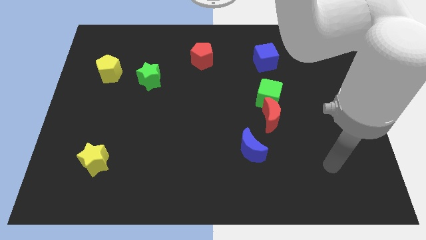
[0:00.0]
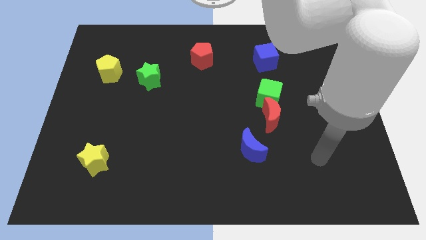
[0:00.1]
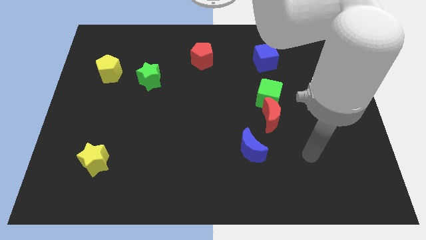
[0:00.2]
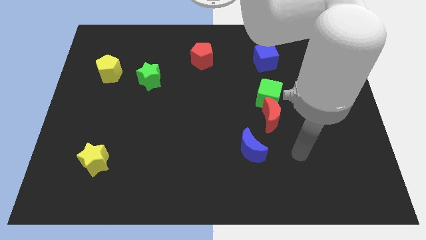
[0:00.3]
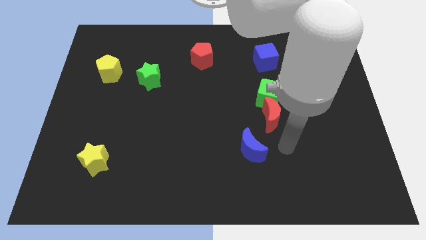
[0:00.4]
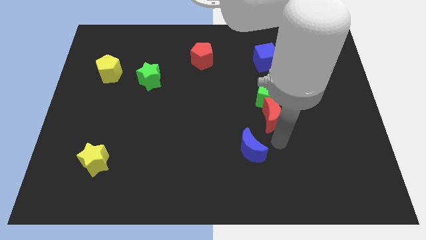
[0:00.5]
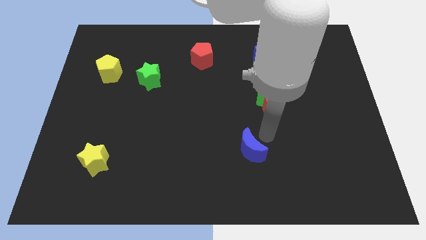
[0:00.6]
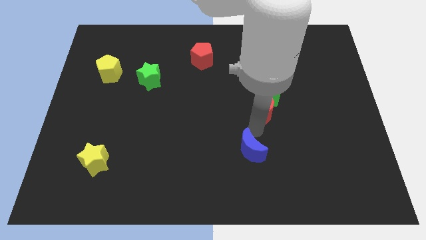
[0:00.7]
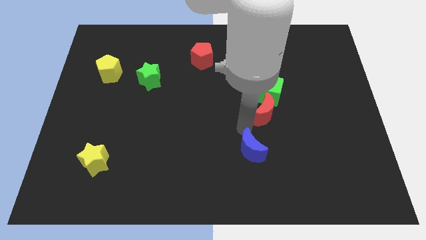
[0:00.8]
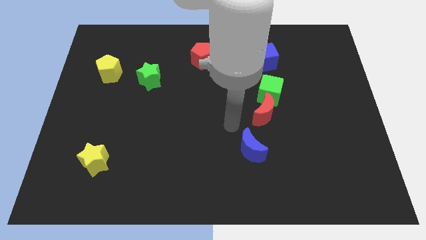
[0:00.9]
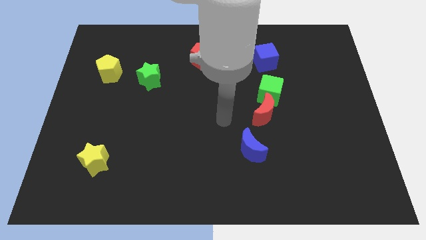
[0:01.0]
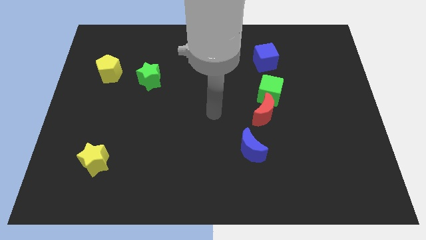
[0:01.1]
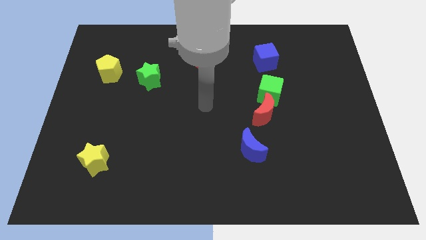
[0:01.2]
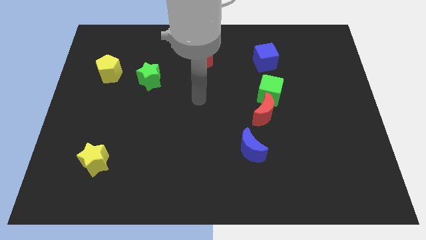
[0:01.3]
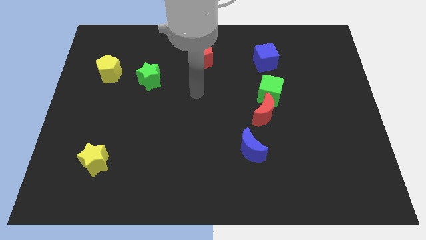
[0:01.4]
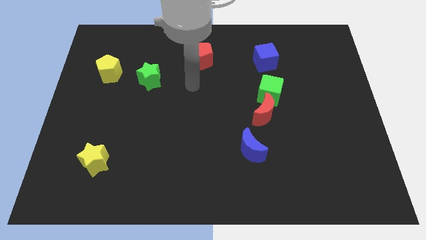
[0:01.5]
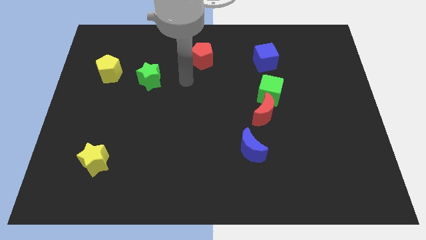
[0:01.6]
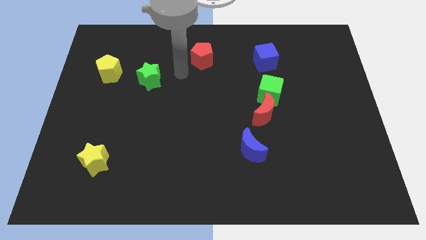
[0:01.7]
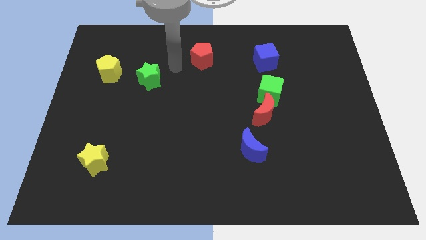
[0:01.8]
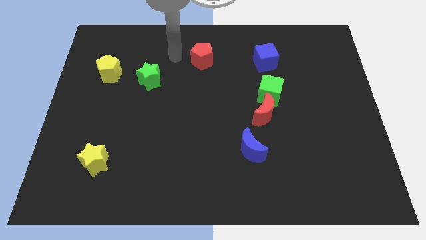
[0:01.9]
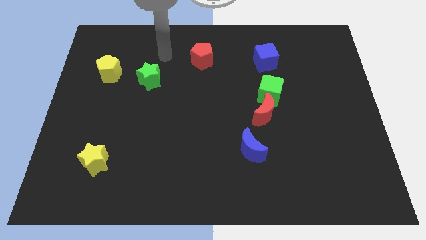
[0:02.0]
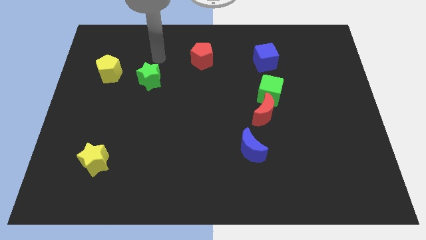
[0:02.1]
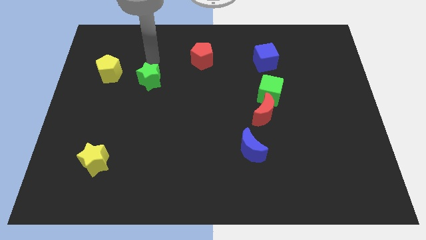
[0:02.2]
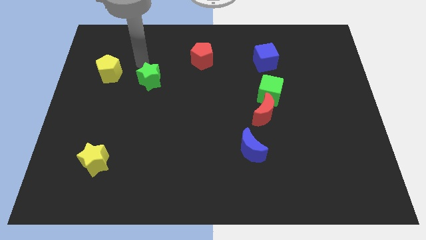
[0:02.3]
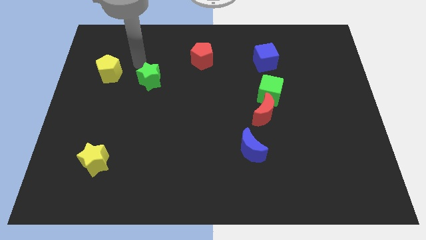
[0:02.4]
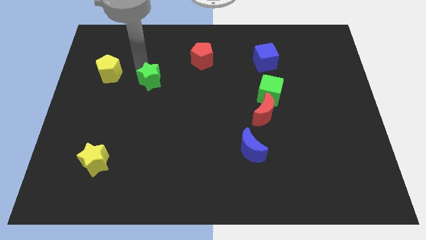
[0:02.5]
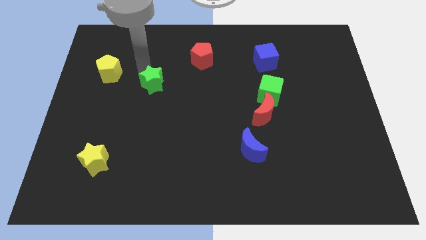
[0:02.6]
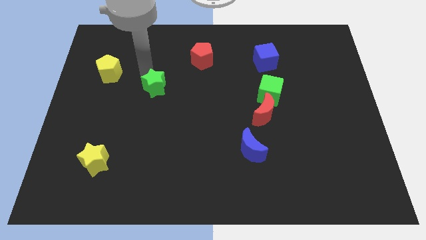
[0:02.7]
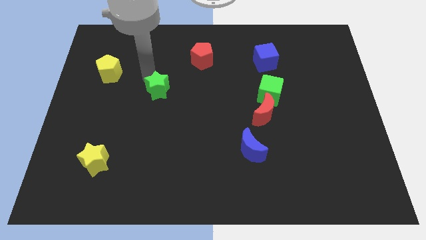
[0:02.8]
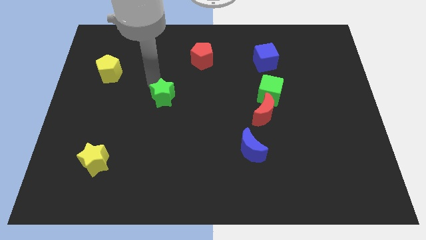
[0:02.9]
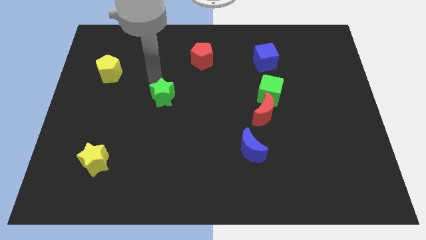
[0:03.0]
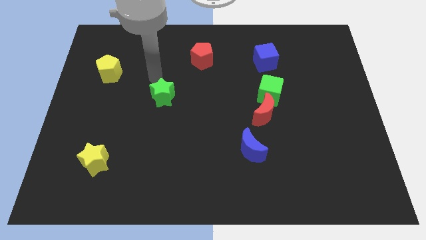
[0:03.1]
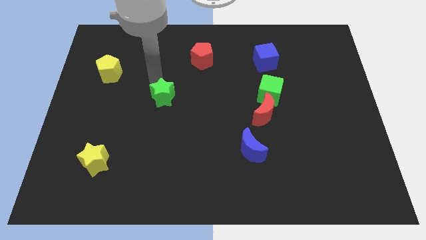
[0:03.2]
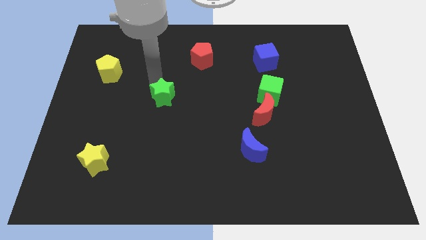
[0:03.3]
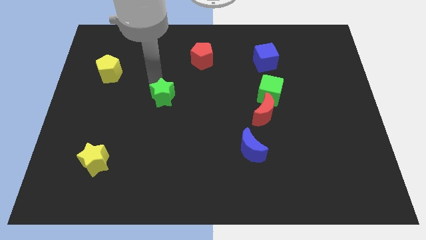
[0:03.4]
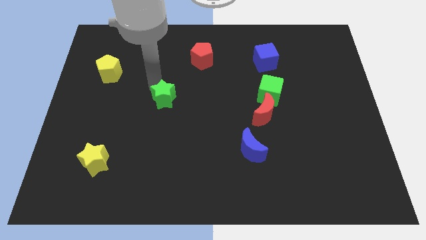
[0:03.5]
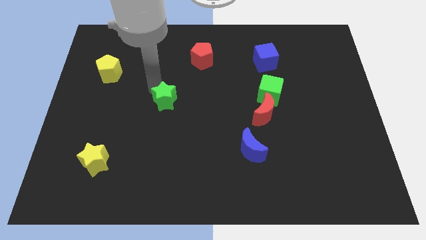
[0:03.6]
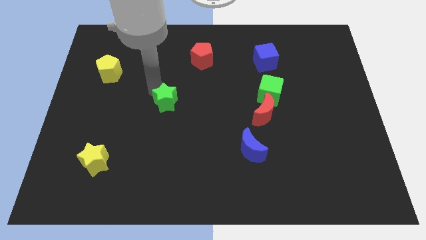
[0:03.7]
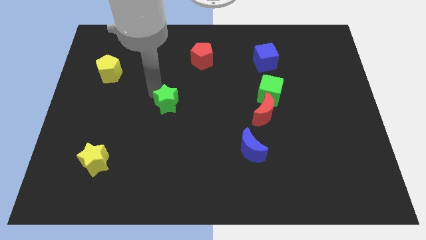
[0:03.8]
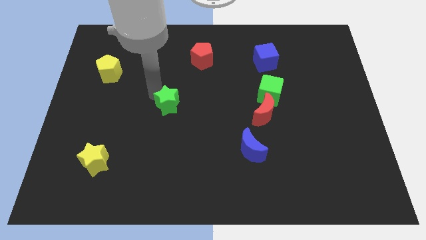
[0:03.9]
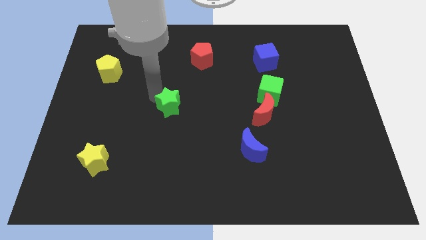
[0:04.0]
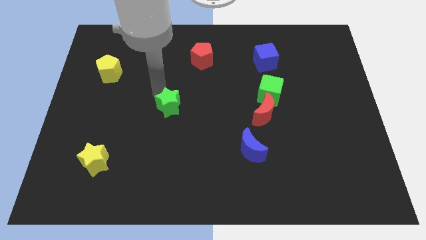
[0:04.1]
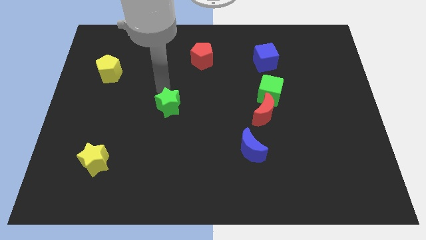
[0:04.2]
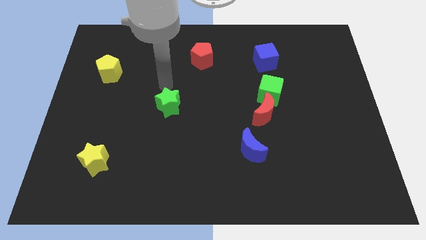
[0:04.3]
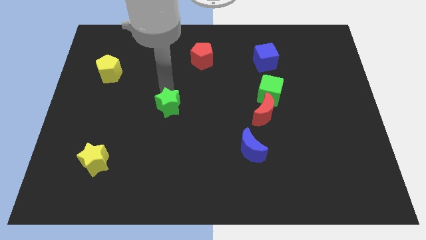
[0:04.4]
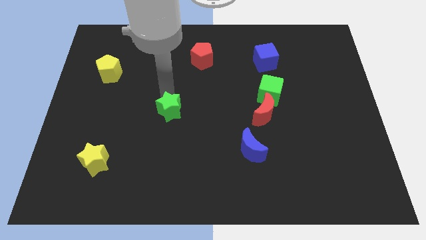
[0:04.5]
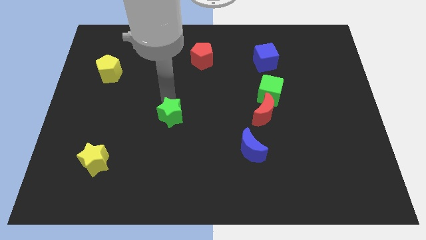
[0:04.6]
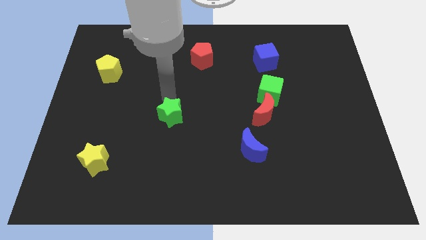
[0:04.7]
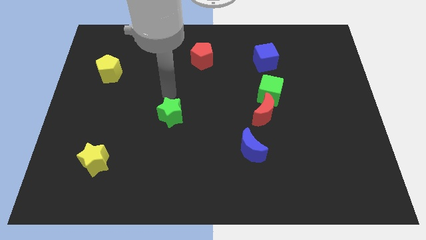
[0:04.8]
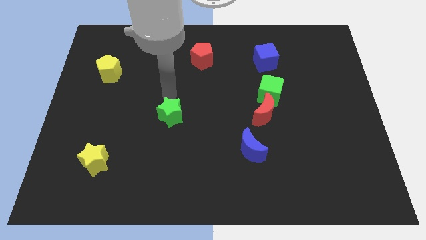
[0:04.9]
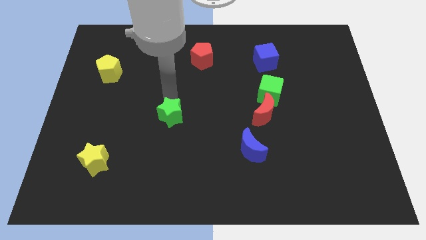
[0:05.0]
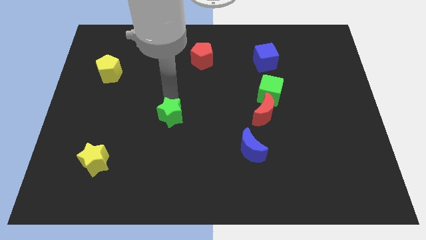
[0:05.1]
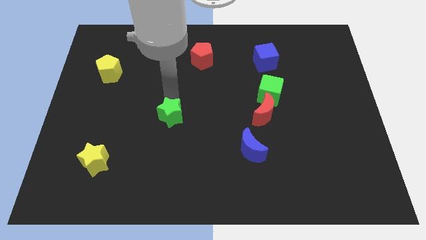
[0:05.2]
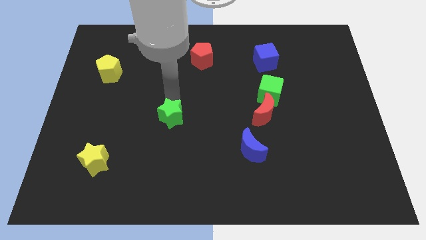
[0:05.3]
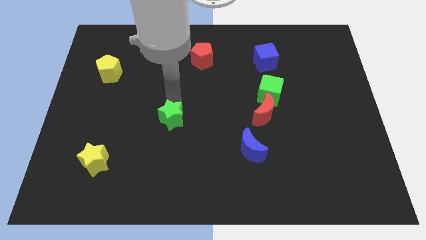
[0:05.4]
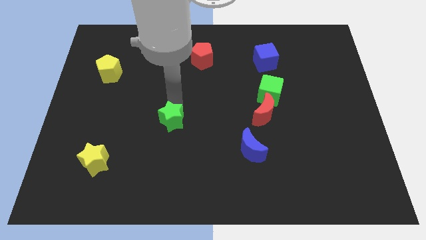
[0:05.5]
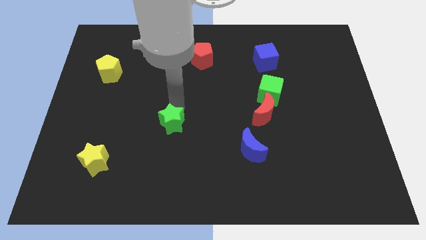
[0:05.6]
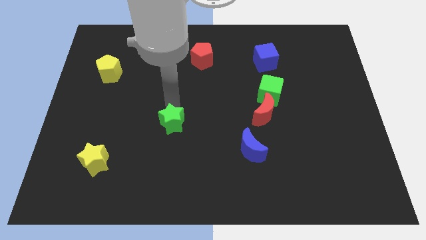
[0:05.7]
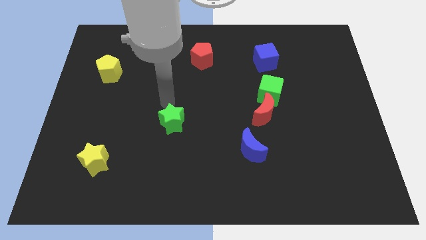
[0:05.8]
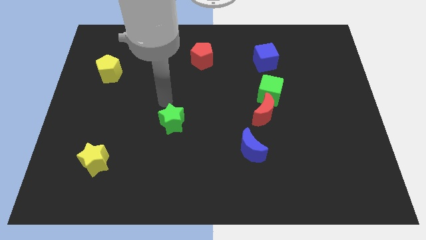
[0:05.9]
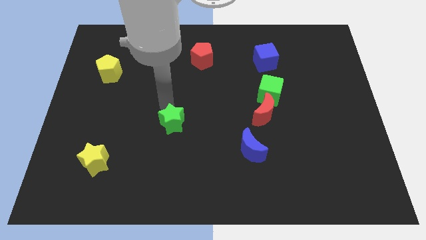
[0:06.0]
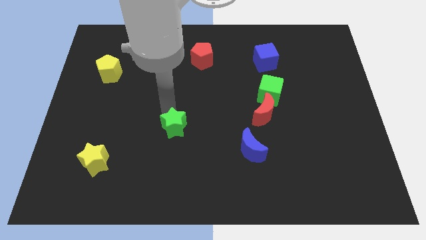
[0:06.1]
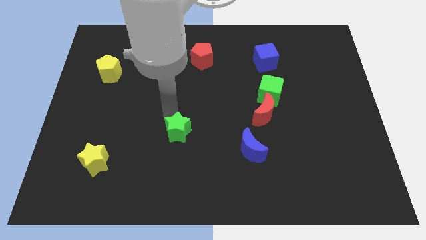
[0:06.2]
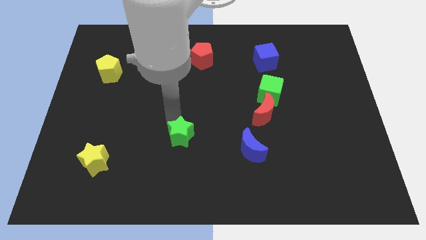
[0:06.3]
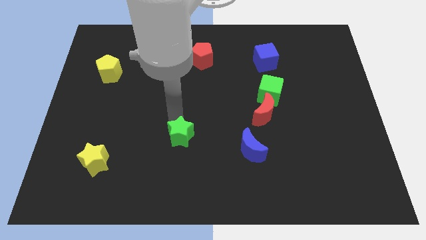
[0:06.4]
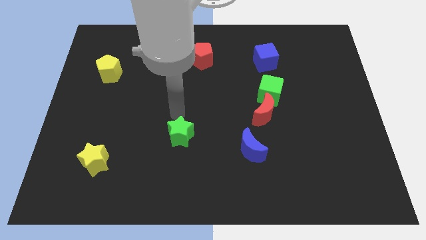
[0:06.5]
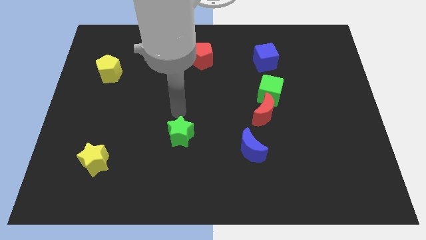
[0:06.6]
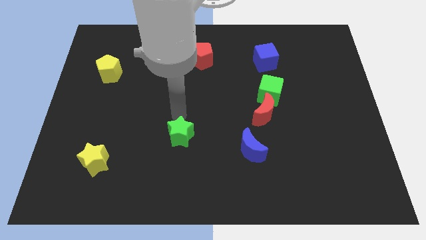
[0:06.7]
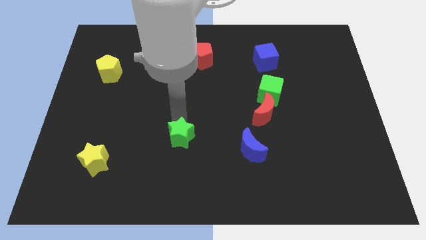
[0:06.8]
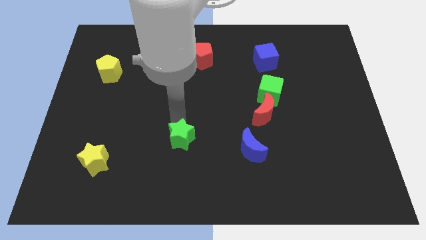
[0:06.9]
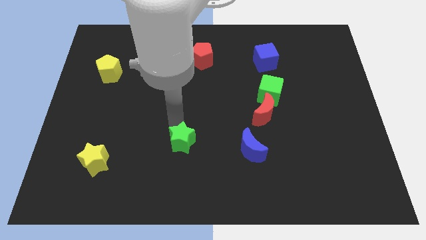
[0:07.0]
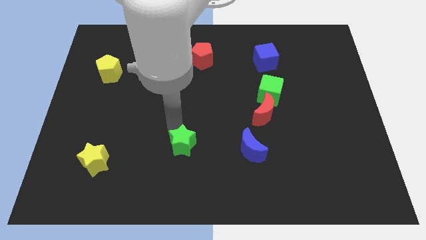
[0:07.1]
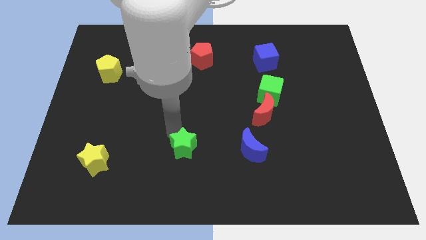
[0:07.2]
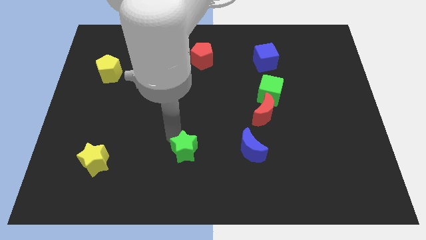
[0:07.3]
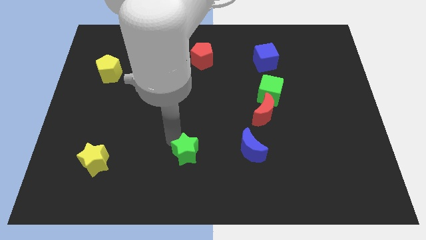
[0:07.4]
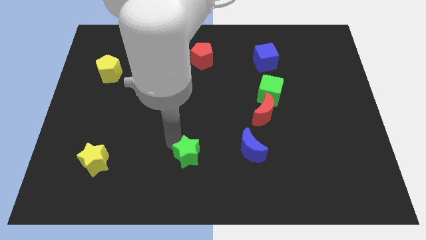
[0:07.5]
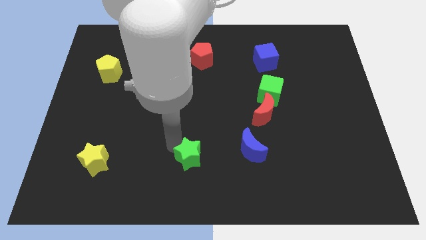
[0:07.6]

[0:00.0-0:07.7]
slide the green star to the bottom side
